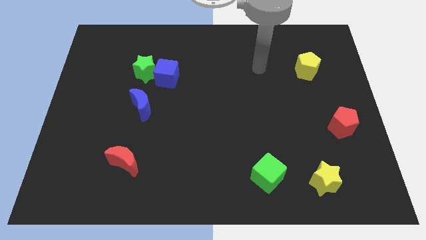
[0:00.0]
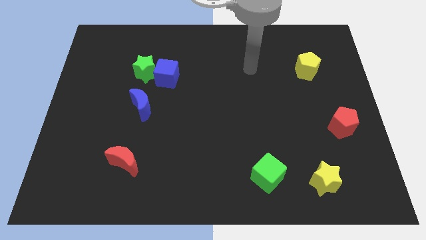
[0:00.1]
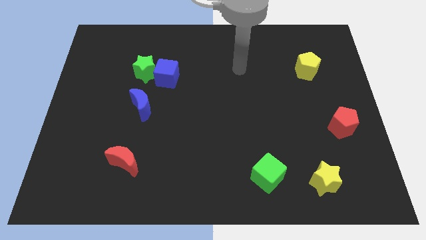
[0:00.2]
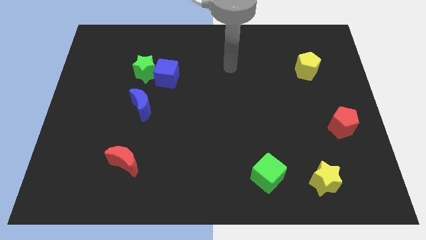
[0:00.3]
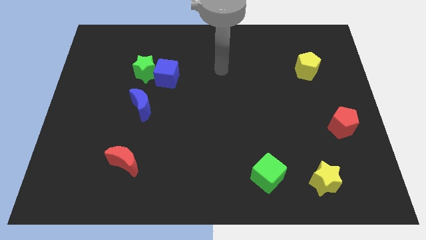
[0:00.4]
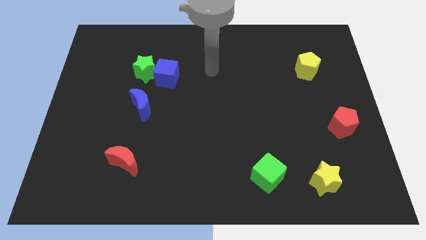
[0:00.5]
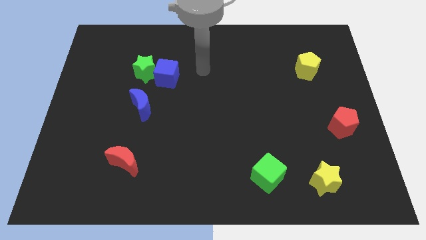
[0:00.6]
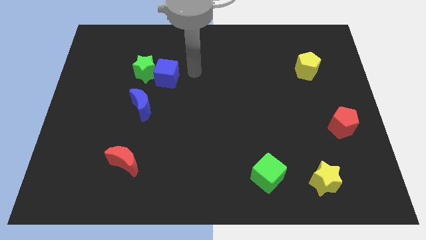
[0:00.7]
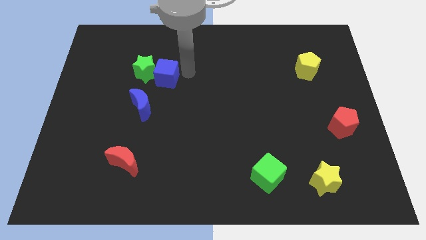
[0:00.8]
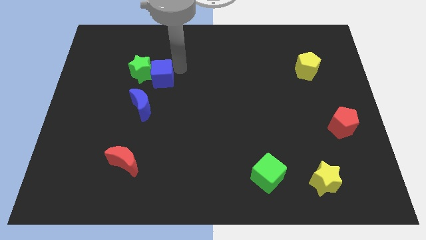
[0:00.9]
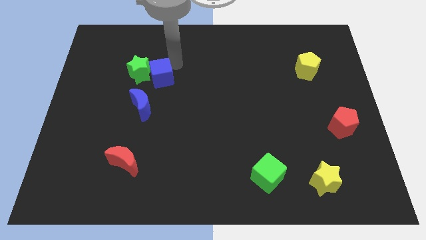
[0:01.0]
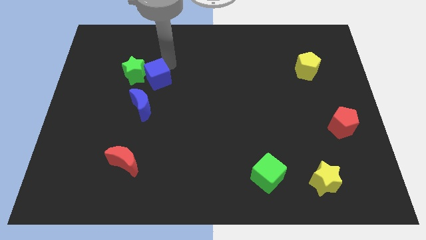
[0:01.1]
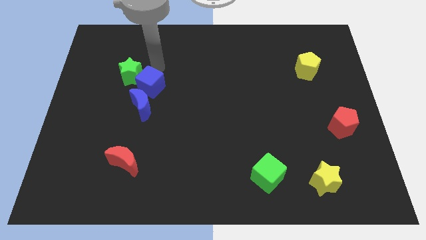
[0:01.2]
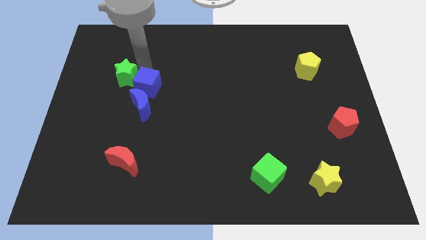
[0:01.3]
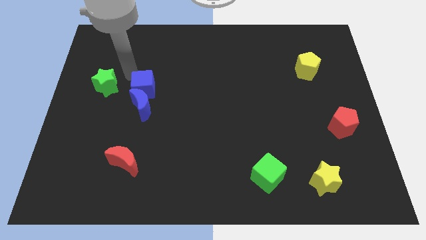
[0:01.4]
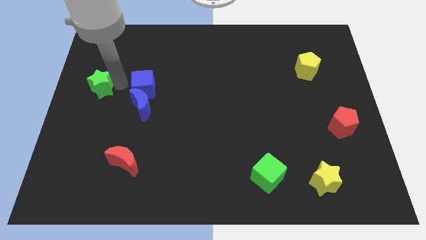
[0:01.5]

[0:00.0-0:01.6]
pull the blue cube apart from the green star

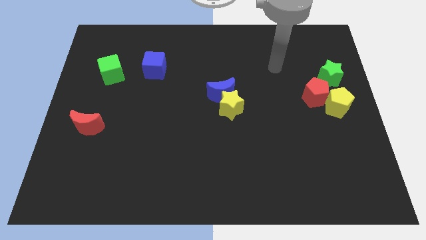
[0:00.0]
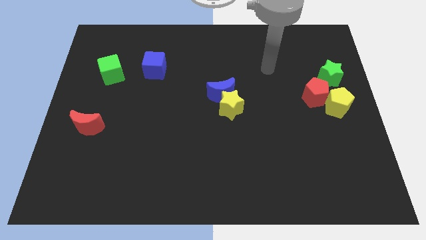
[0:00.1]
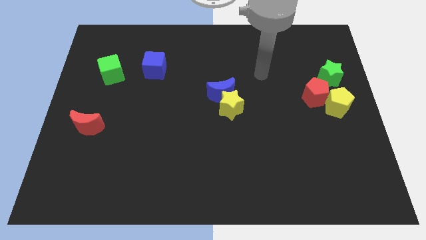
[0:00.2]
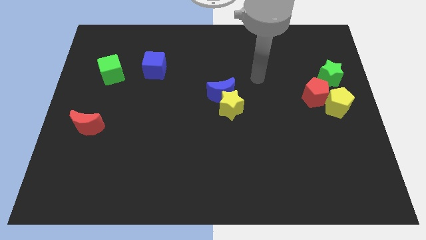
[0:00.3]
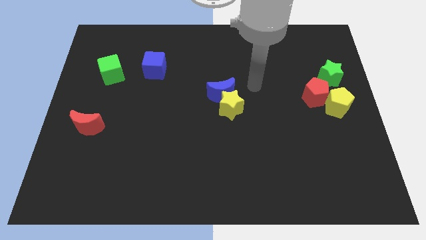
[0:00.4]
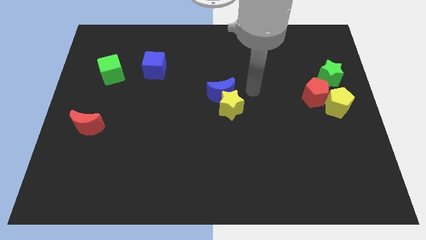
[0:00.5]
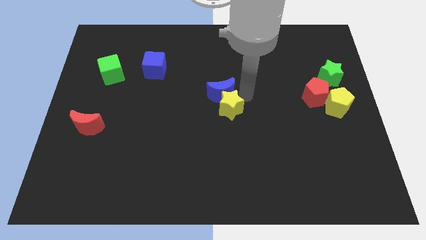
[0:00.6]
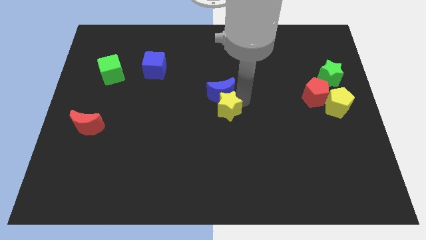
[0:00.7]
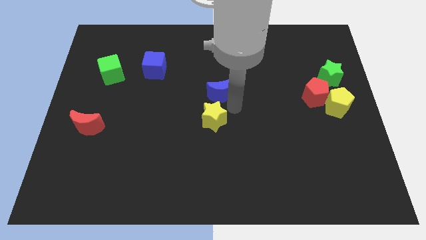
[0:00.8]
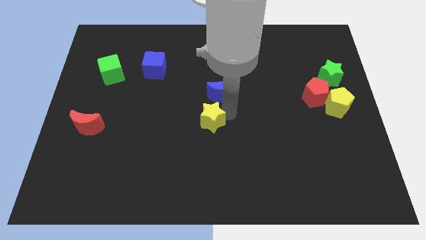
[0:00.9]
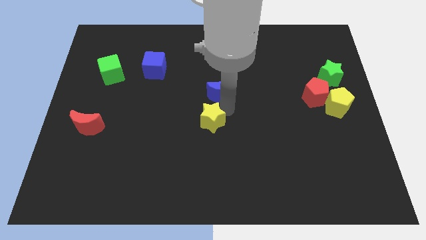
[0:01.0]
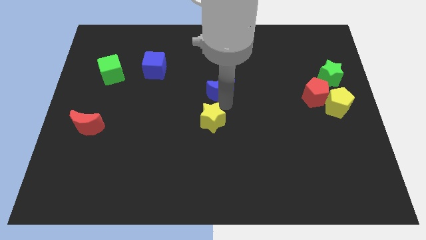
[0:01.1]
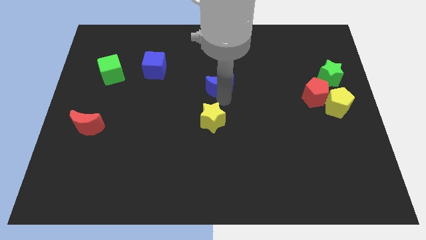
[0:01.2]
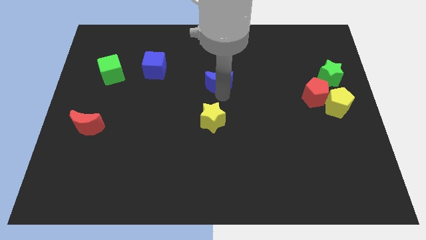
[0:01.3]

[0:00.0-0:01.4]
move the blue moon away from the yellow star

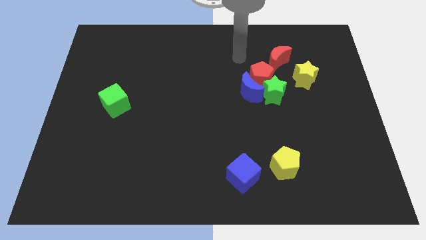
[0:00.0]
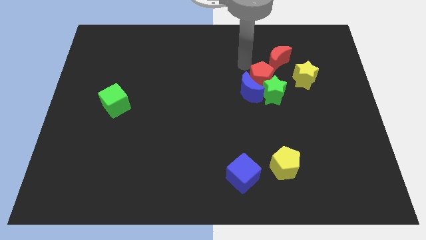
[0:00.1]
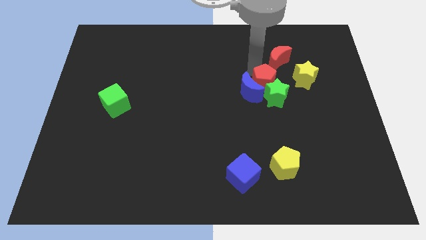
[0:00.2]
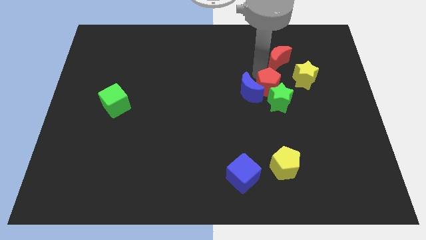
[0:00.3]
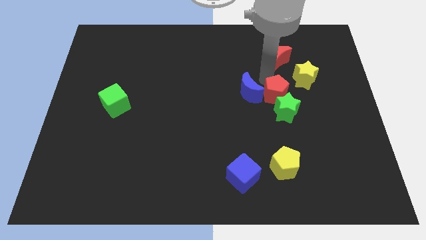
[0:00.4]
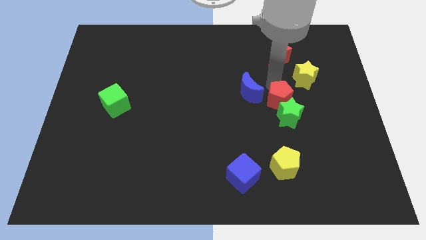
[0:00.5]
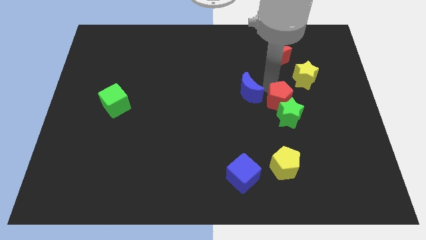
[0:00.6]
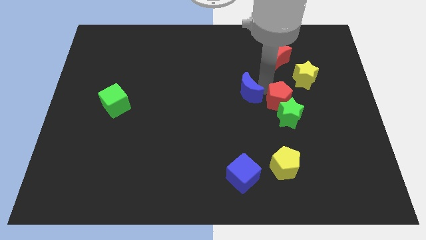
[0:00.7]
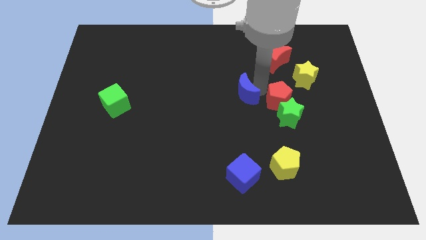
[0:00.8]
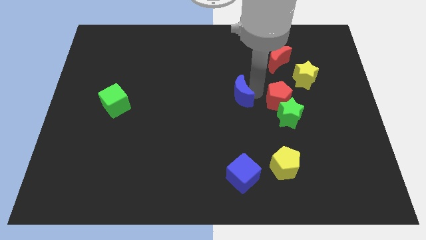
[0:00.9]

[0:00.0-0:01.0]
separate the blue moon from the red pentagon and green star

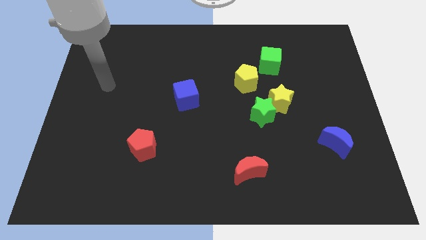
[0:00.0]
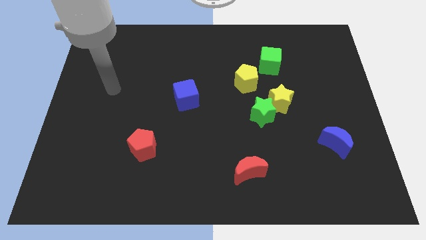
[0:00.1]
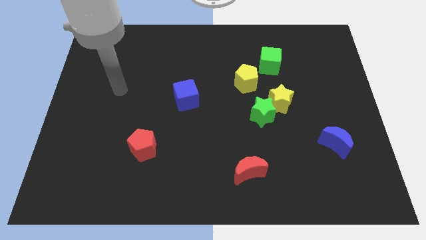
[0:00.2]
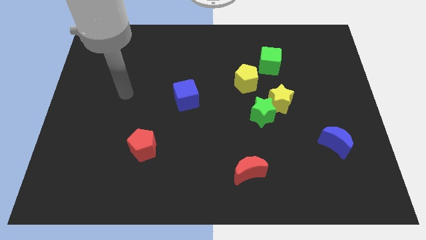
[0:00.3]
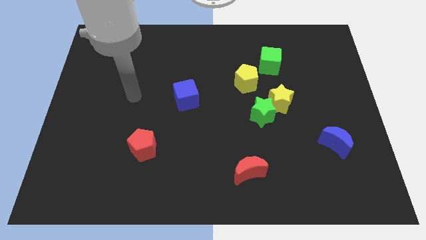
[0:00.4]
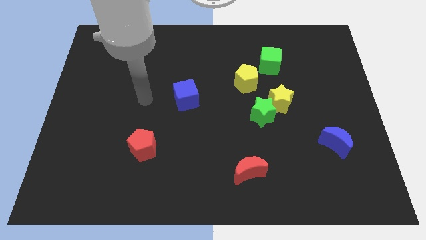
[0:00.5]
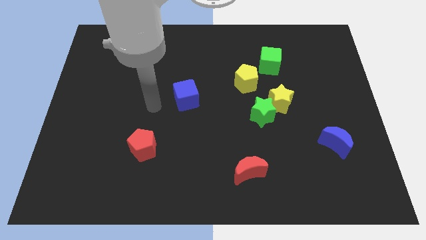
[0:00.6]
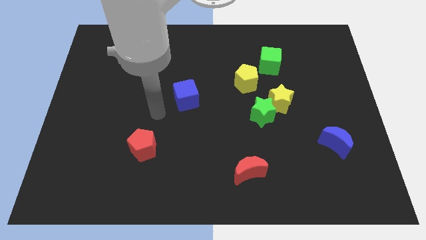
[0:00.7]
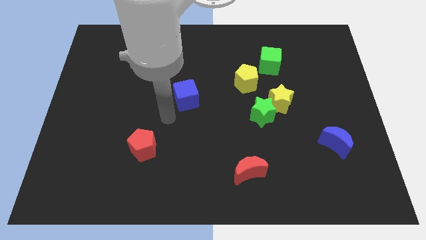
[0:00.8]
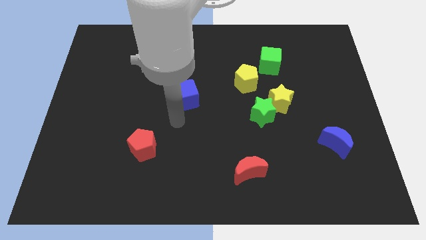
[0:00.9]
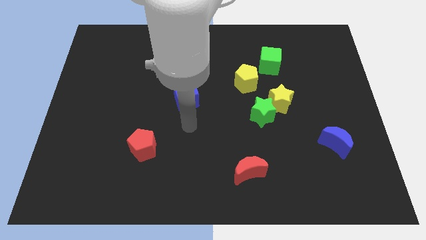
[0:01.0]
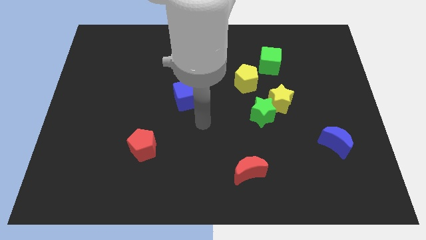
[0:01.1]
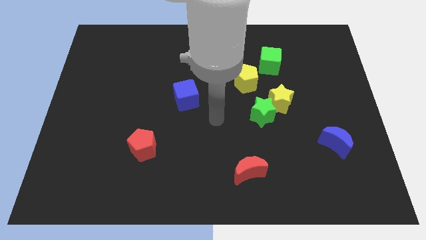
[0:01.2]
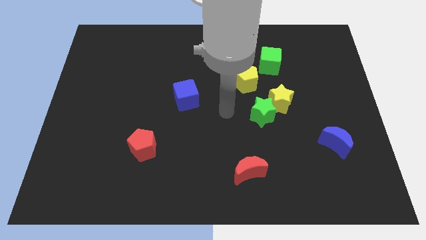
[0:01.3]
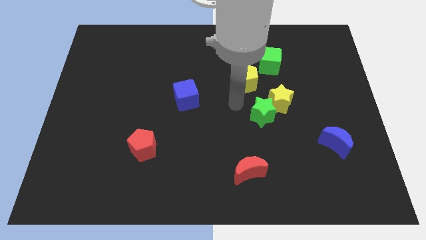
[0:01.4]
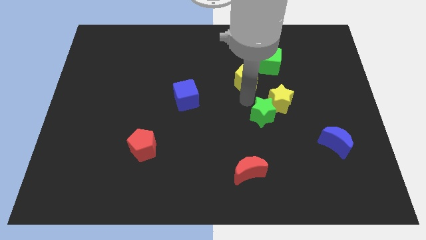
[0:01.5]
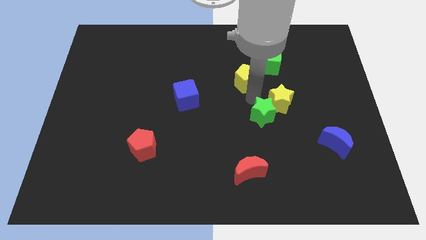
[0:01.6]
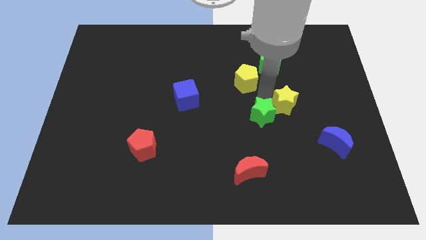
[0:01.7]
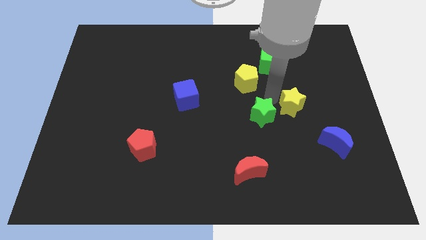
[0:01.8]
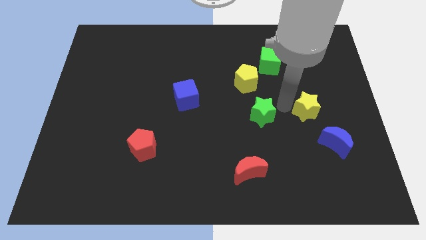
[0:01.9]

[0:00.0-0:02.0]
separate the green star from the yellow star

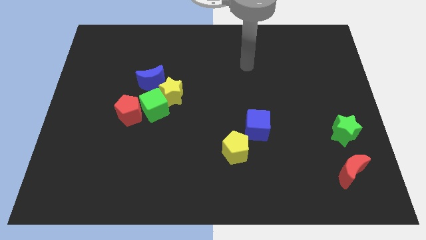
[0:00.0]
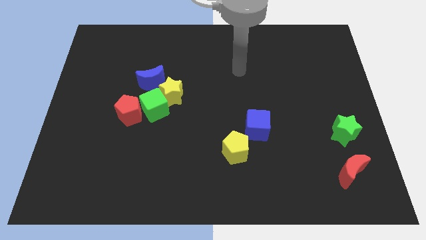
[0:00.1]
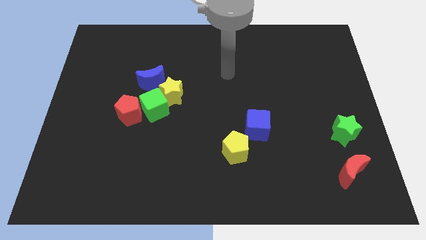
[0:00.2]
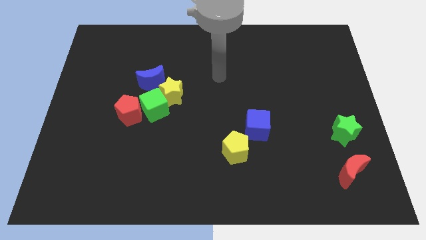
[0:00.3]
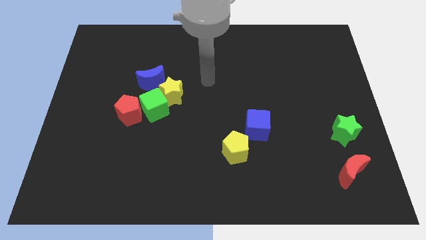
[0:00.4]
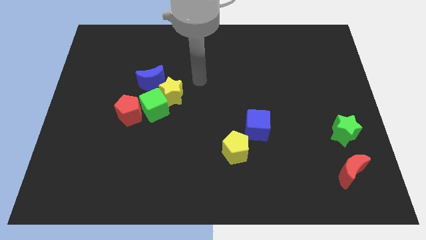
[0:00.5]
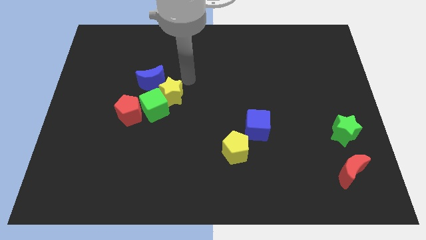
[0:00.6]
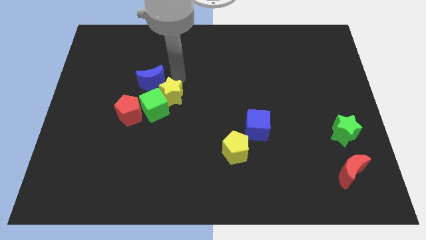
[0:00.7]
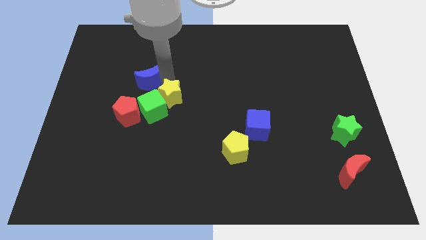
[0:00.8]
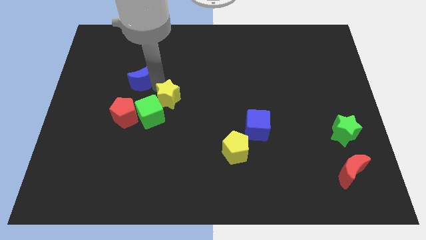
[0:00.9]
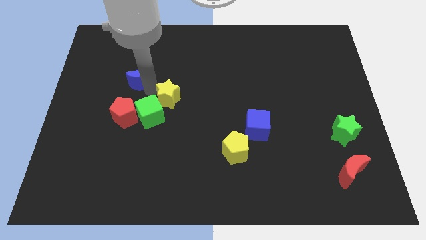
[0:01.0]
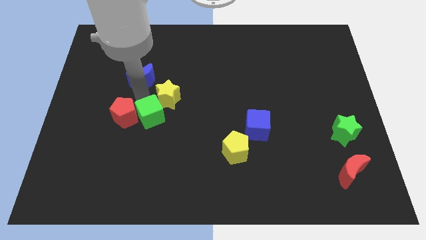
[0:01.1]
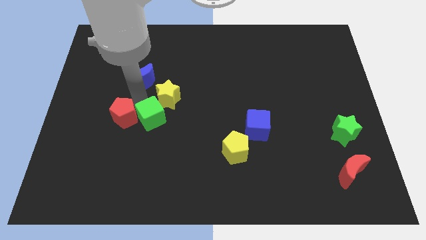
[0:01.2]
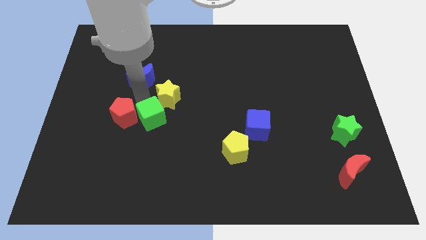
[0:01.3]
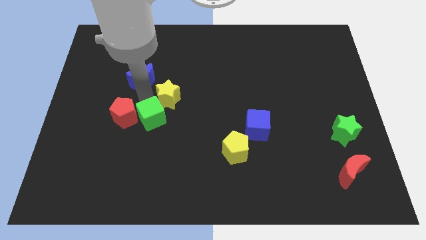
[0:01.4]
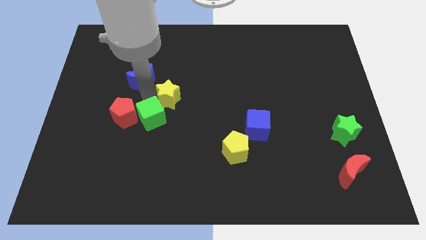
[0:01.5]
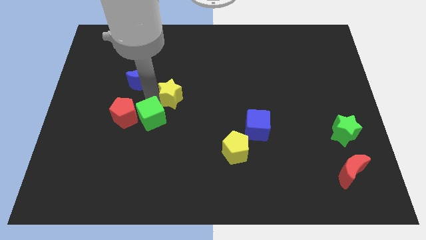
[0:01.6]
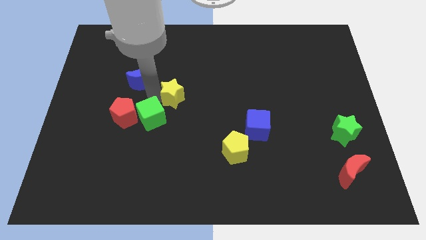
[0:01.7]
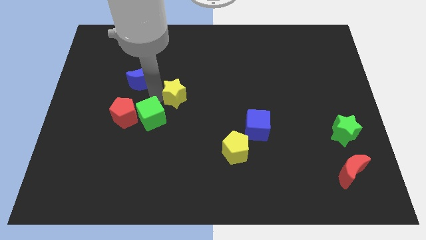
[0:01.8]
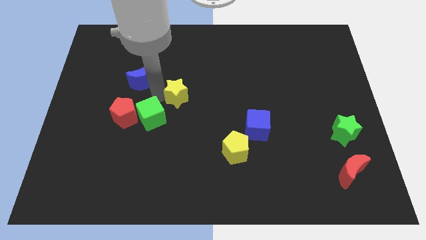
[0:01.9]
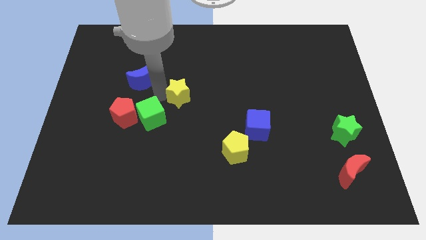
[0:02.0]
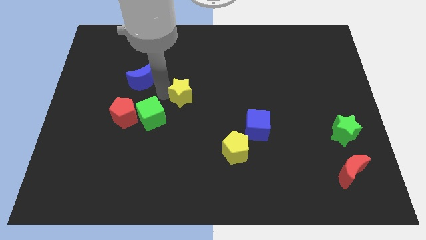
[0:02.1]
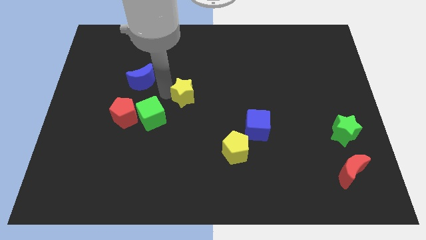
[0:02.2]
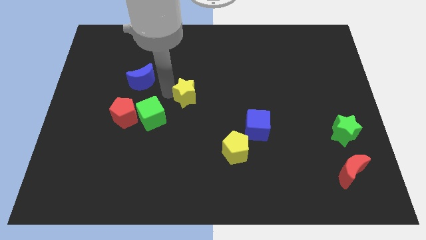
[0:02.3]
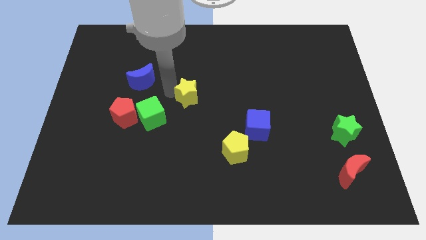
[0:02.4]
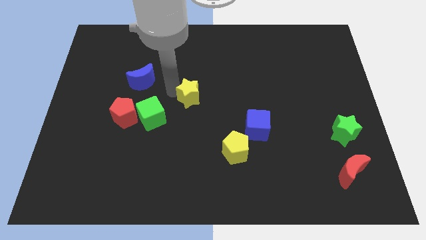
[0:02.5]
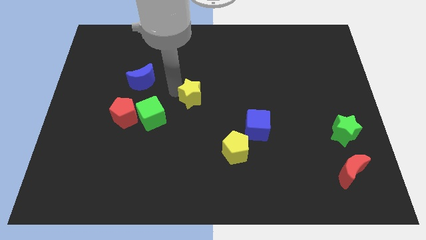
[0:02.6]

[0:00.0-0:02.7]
separate the yellow star from the green cube and blue moon

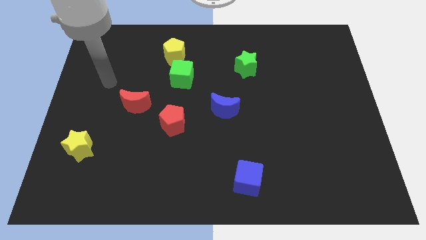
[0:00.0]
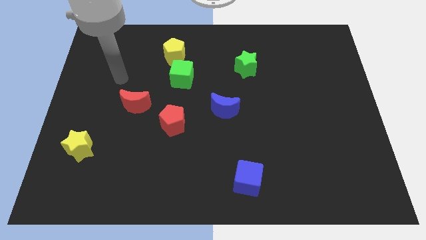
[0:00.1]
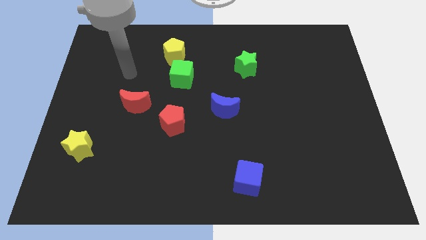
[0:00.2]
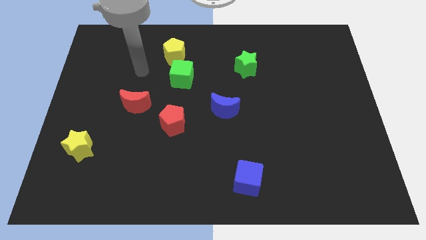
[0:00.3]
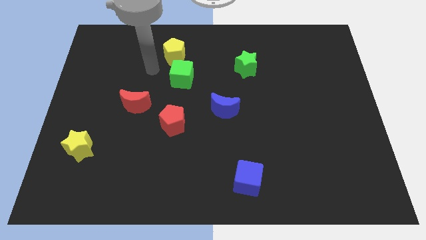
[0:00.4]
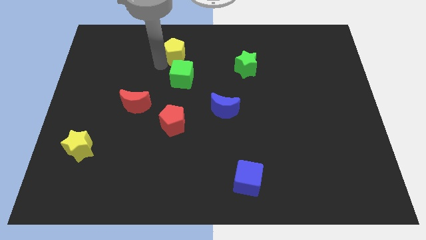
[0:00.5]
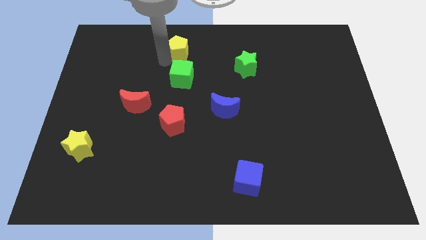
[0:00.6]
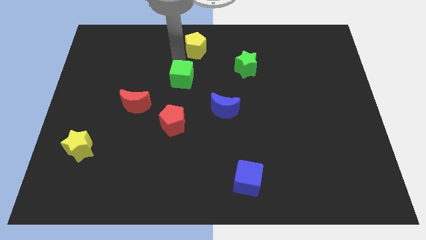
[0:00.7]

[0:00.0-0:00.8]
separate the green cube from the yellow pentagon

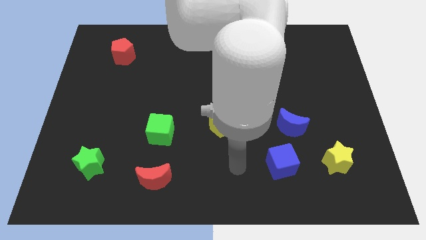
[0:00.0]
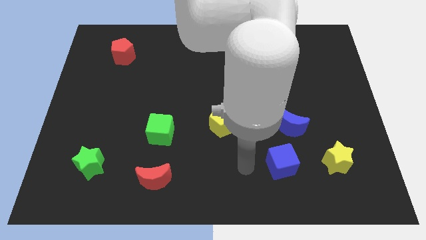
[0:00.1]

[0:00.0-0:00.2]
pull the blue moon apart from the blue cube
